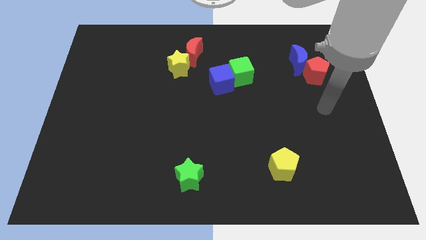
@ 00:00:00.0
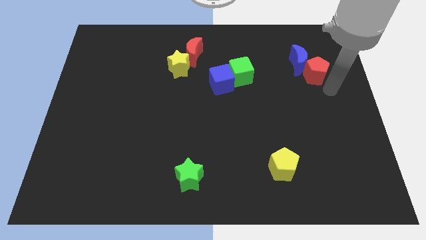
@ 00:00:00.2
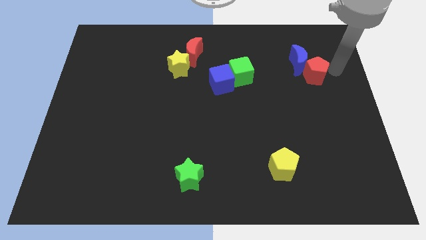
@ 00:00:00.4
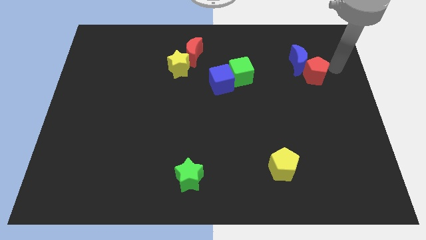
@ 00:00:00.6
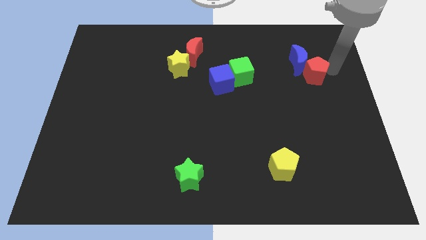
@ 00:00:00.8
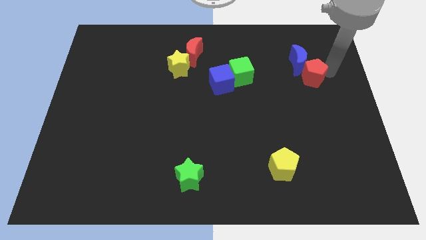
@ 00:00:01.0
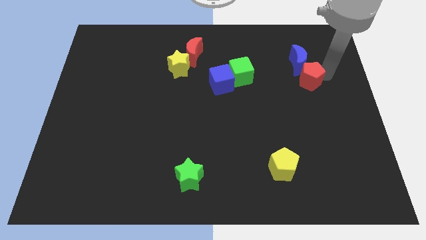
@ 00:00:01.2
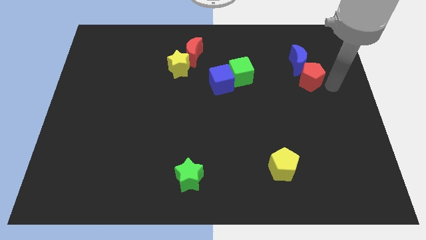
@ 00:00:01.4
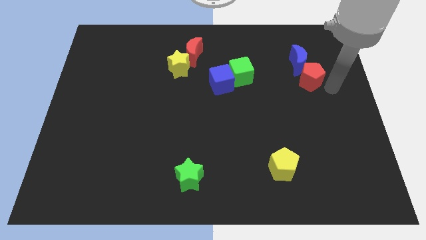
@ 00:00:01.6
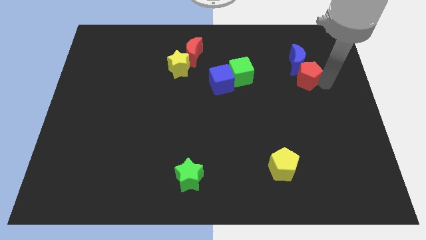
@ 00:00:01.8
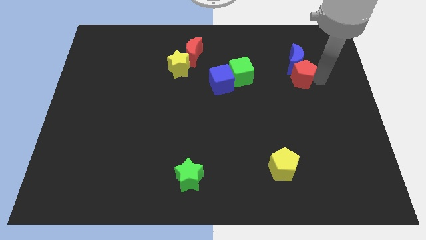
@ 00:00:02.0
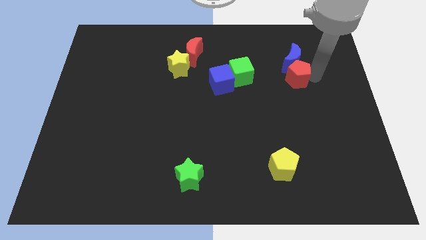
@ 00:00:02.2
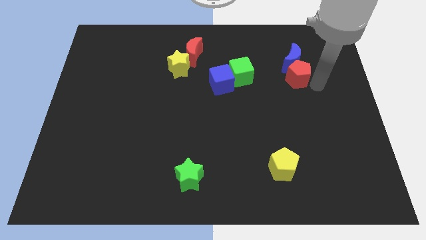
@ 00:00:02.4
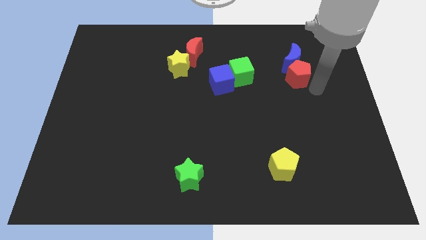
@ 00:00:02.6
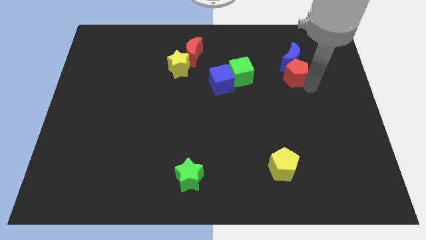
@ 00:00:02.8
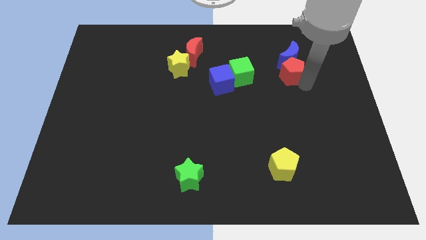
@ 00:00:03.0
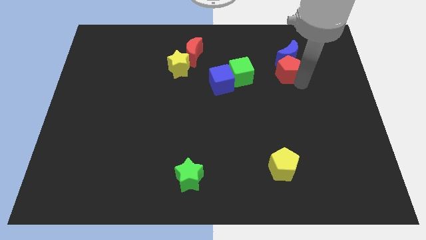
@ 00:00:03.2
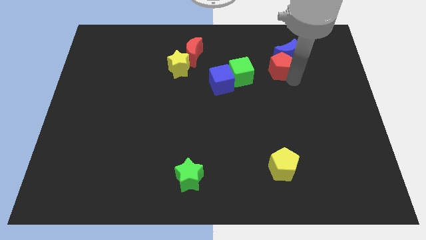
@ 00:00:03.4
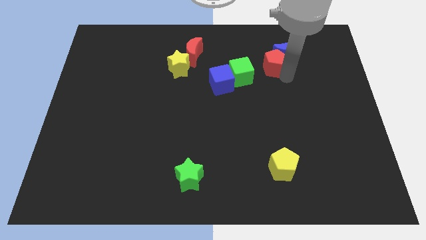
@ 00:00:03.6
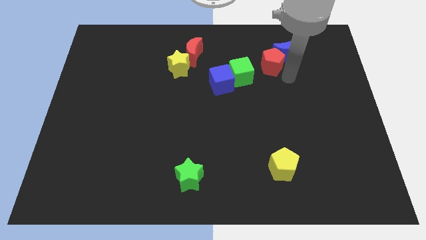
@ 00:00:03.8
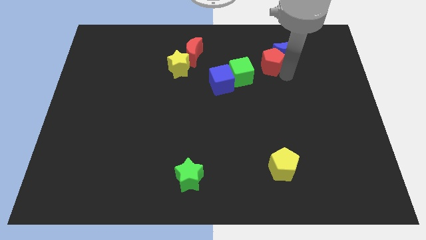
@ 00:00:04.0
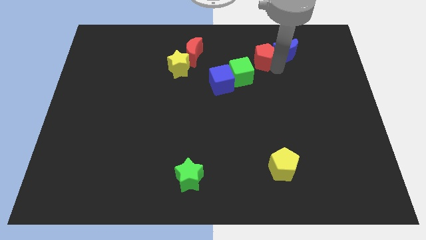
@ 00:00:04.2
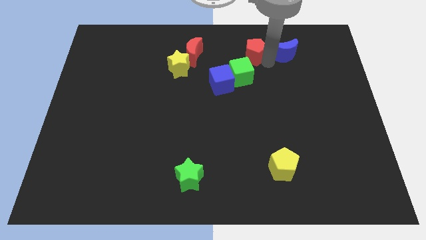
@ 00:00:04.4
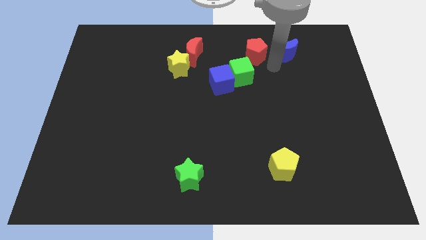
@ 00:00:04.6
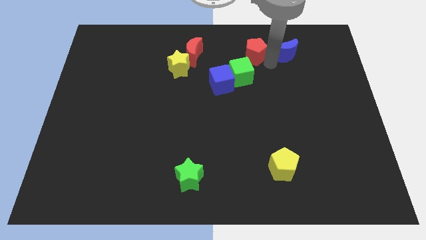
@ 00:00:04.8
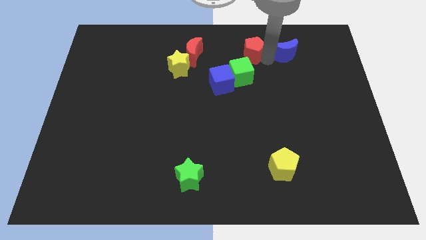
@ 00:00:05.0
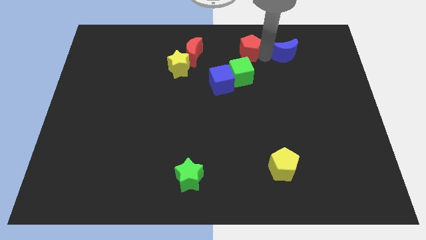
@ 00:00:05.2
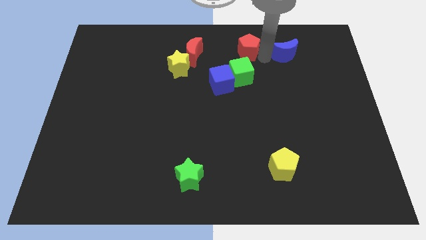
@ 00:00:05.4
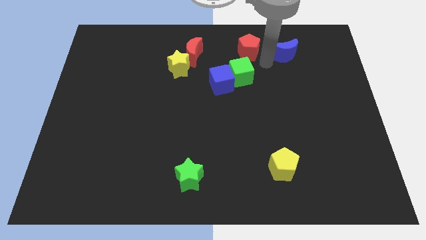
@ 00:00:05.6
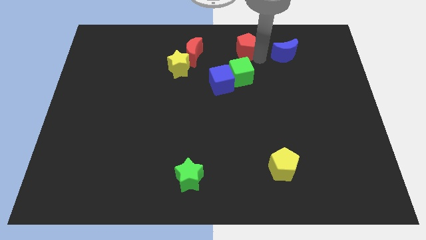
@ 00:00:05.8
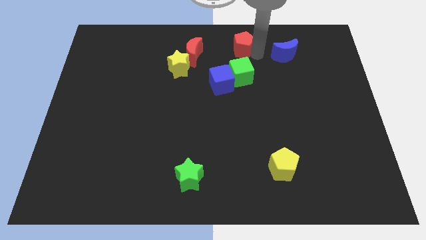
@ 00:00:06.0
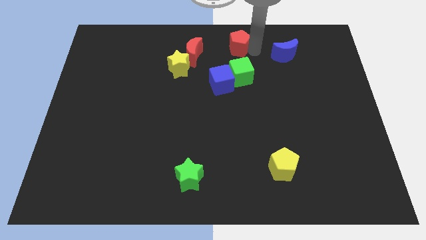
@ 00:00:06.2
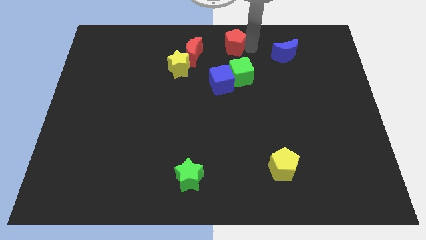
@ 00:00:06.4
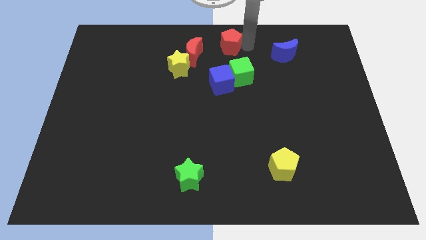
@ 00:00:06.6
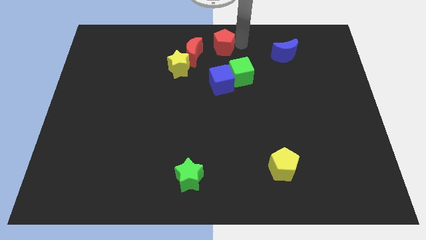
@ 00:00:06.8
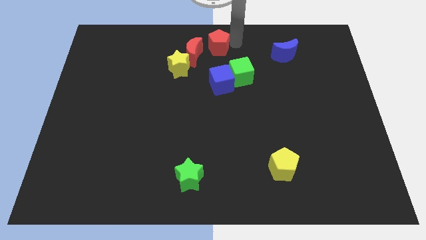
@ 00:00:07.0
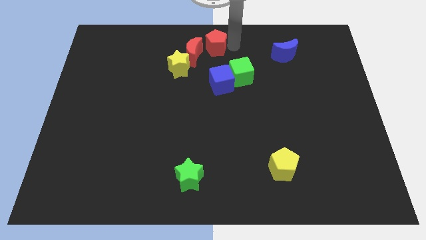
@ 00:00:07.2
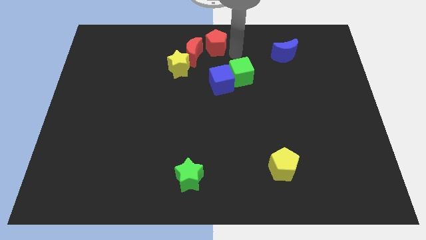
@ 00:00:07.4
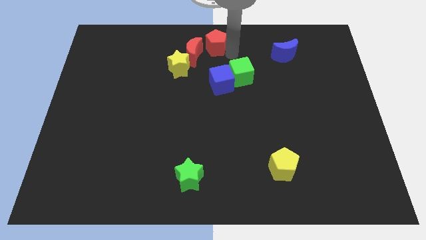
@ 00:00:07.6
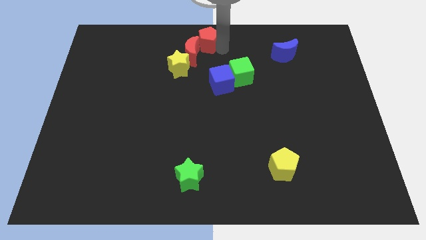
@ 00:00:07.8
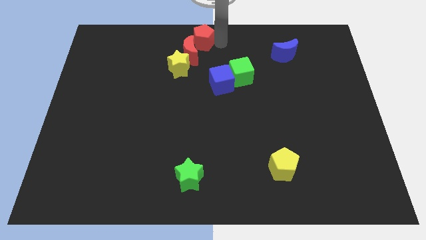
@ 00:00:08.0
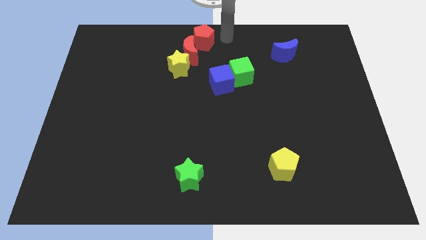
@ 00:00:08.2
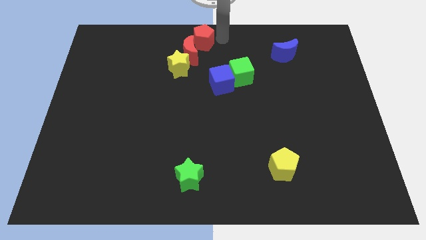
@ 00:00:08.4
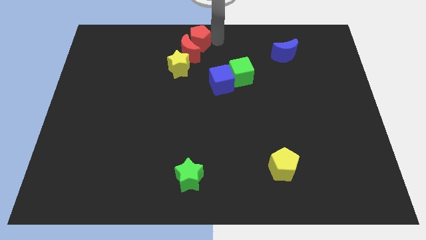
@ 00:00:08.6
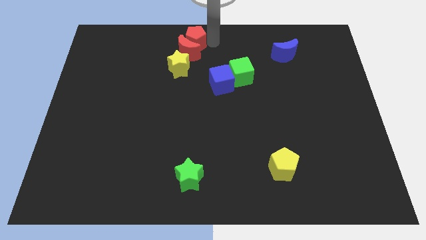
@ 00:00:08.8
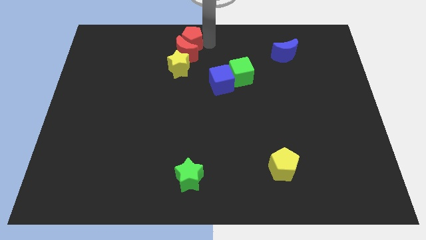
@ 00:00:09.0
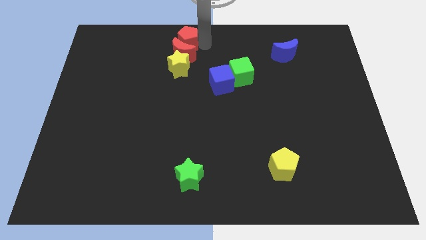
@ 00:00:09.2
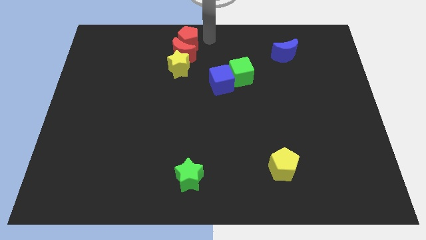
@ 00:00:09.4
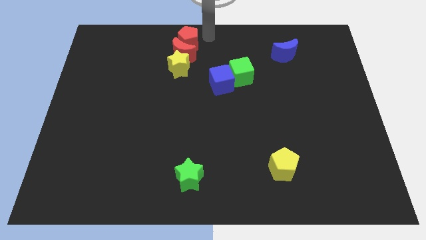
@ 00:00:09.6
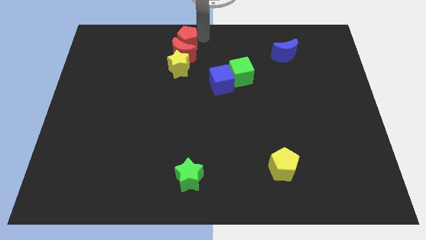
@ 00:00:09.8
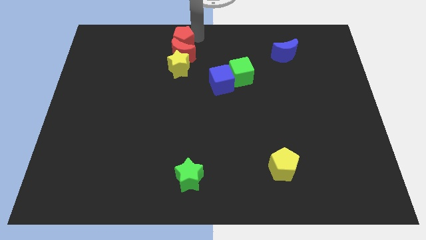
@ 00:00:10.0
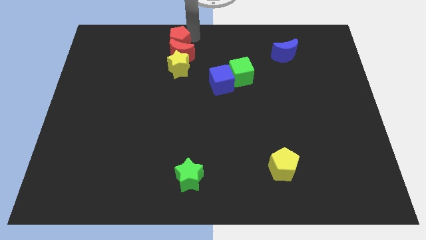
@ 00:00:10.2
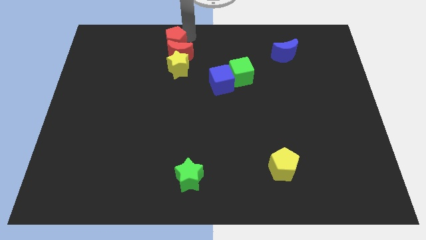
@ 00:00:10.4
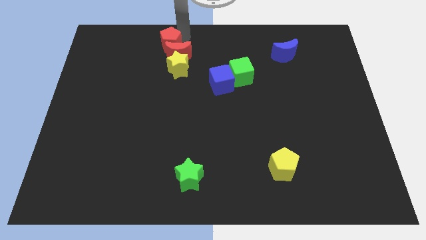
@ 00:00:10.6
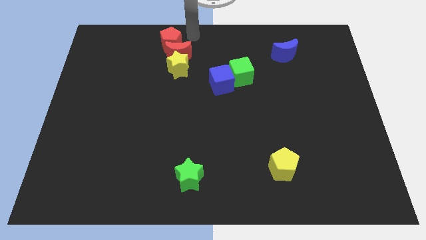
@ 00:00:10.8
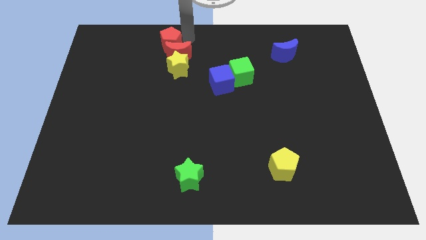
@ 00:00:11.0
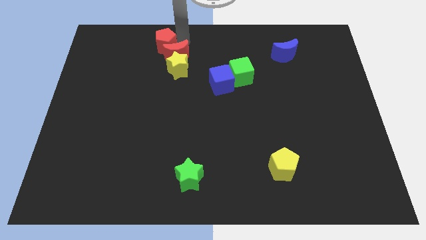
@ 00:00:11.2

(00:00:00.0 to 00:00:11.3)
push the red pentagon to the left of the red moon
